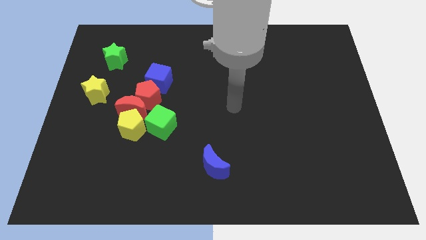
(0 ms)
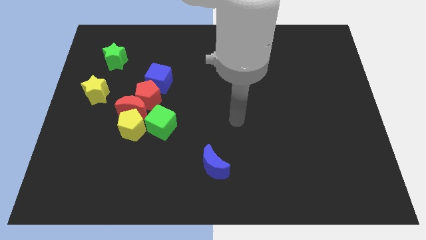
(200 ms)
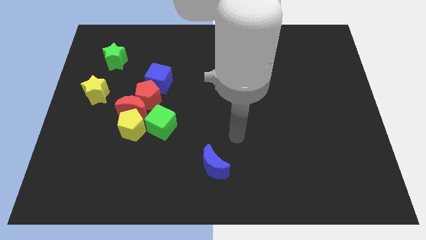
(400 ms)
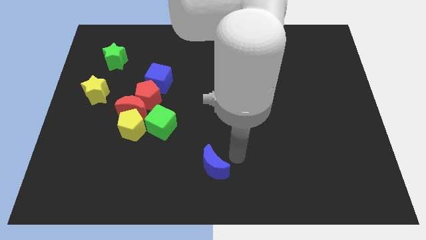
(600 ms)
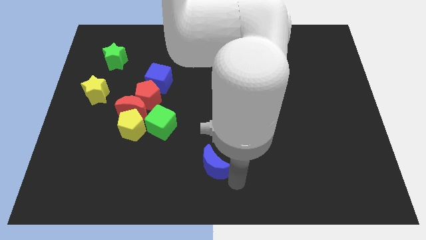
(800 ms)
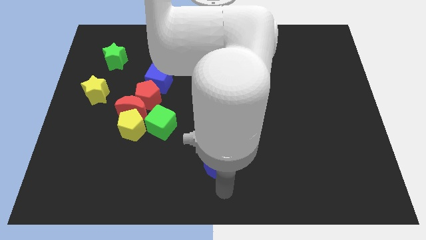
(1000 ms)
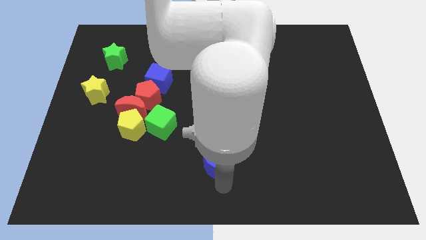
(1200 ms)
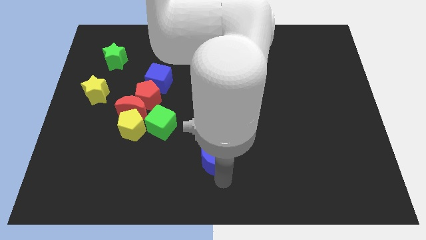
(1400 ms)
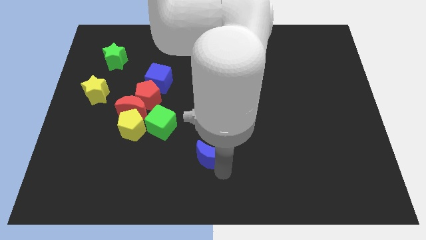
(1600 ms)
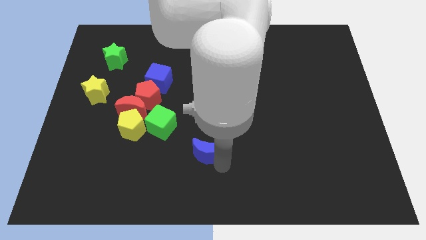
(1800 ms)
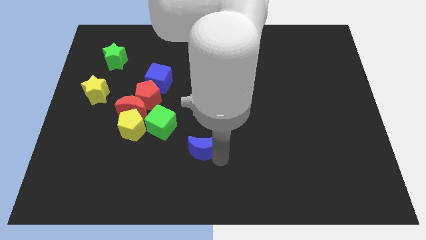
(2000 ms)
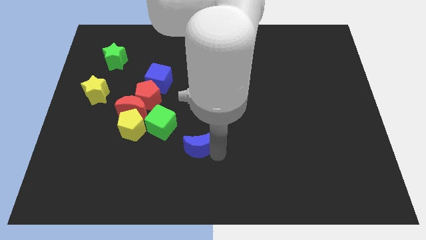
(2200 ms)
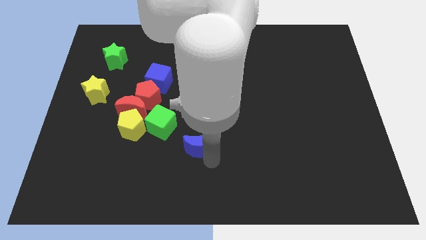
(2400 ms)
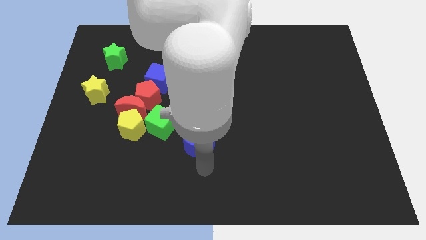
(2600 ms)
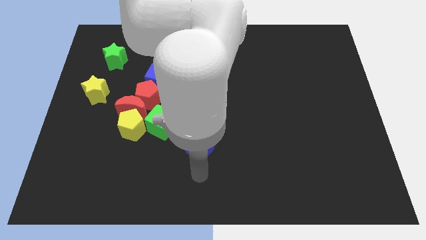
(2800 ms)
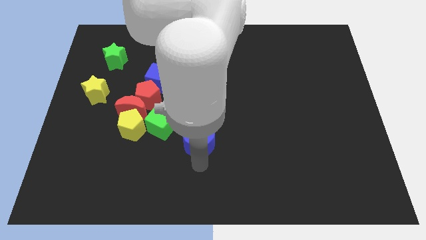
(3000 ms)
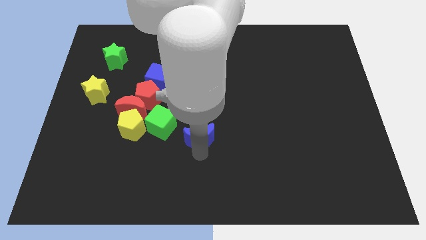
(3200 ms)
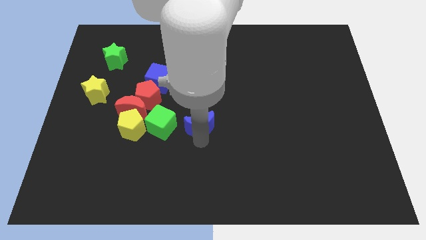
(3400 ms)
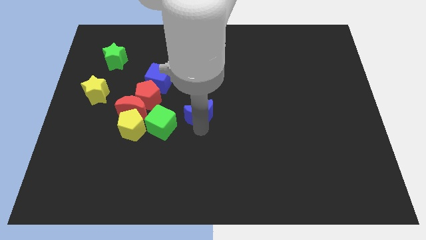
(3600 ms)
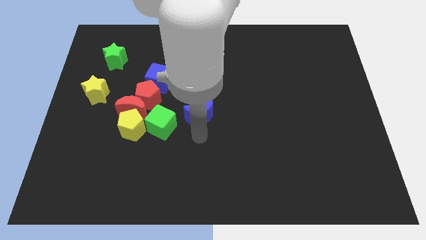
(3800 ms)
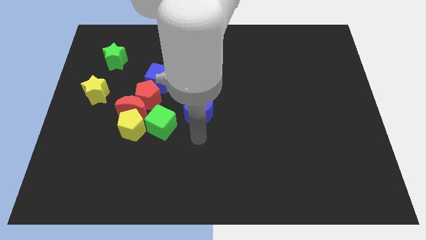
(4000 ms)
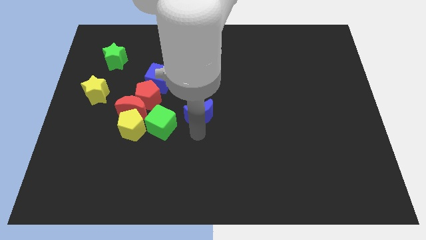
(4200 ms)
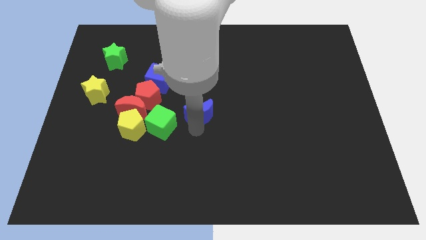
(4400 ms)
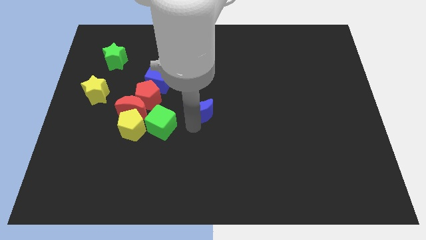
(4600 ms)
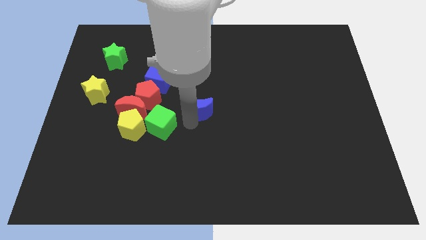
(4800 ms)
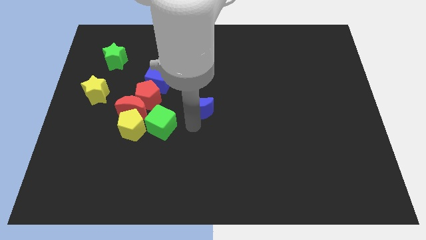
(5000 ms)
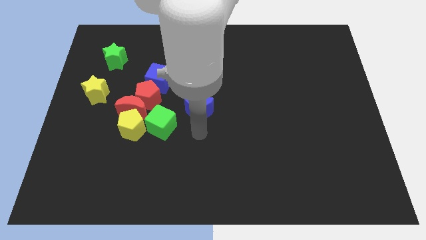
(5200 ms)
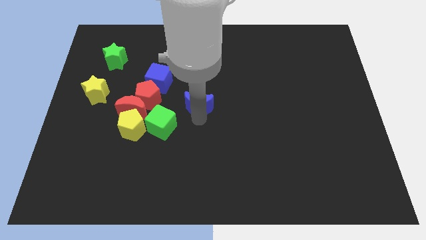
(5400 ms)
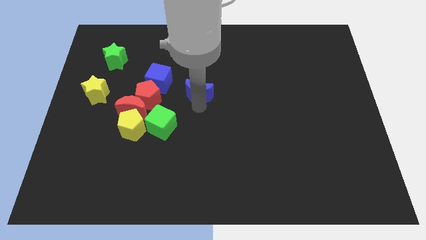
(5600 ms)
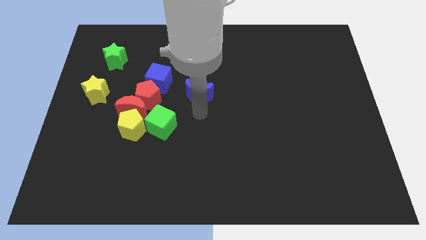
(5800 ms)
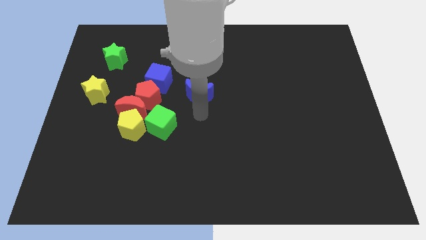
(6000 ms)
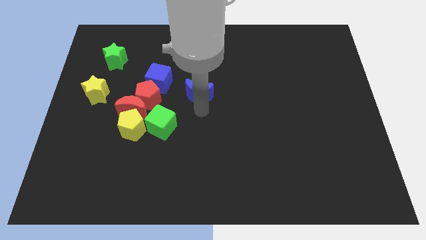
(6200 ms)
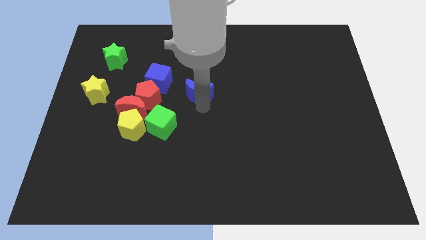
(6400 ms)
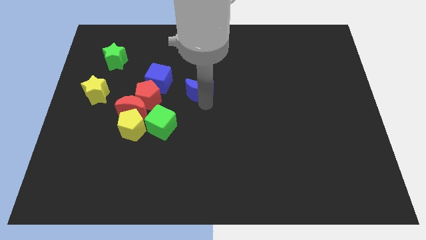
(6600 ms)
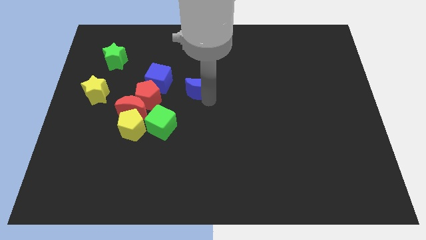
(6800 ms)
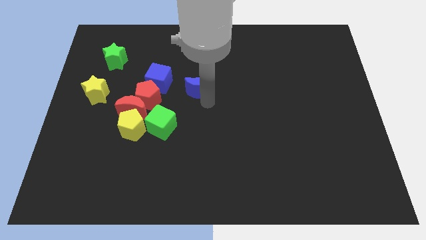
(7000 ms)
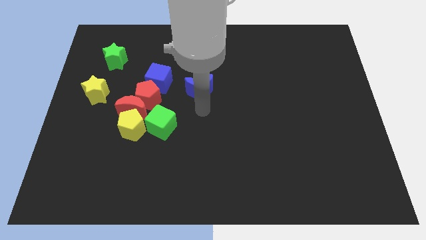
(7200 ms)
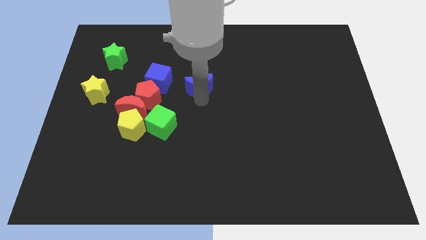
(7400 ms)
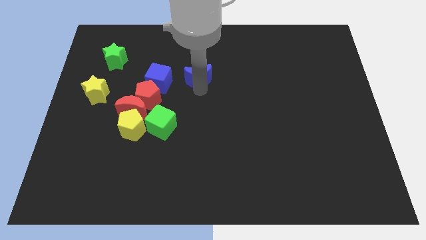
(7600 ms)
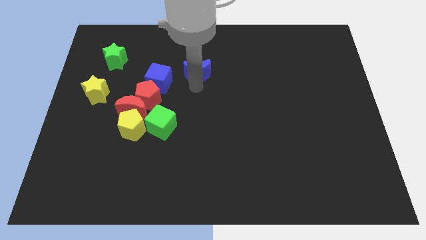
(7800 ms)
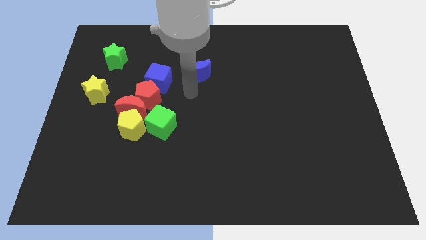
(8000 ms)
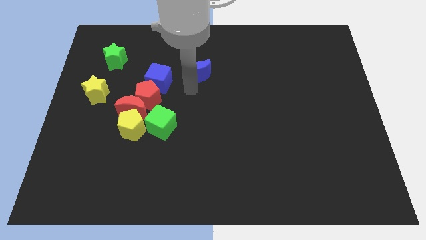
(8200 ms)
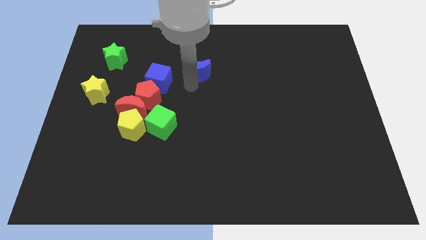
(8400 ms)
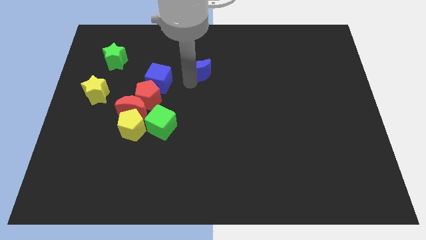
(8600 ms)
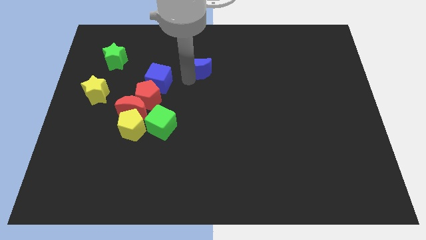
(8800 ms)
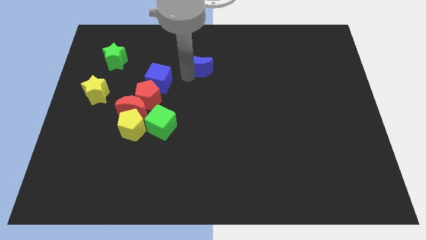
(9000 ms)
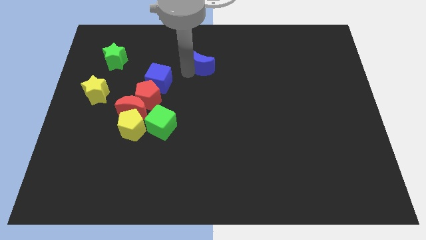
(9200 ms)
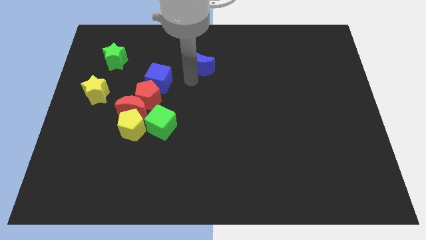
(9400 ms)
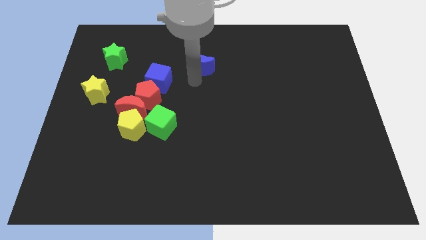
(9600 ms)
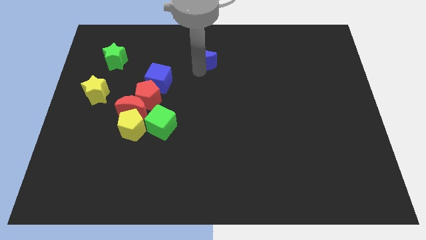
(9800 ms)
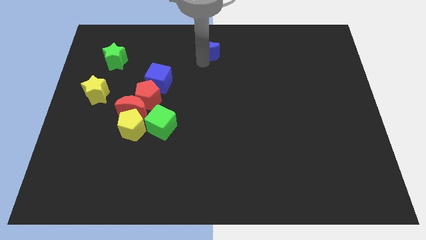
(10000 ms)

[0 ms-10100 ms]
move the blue moon to the top

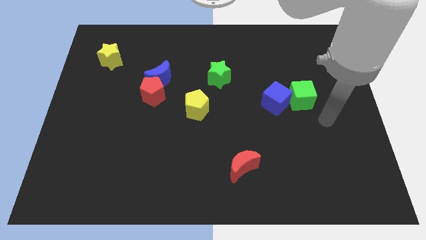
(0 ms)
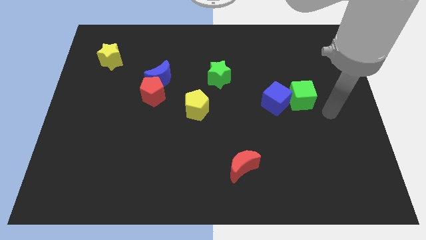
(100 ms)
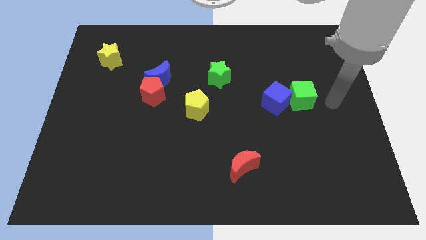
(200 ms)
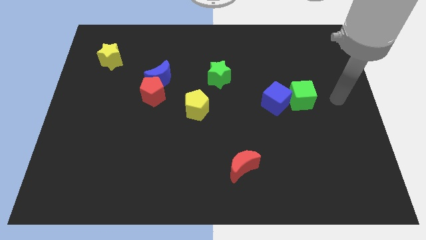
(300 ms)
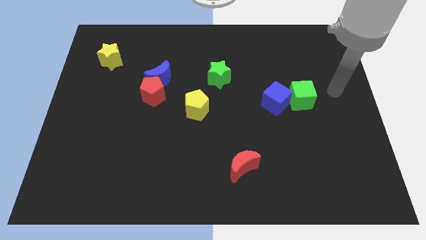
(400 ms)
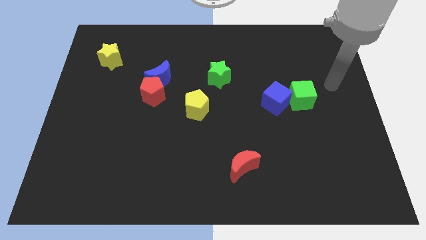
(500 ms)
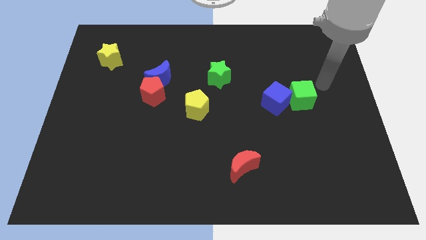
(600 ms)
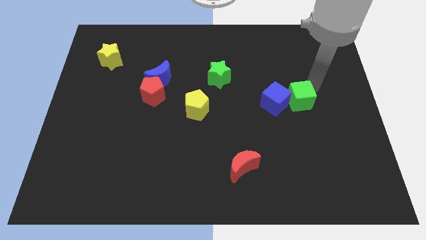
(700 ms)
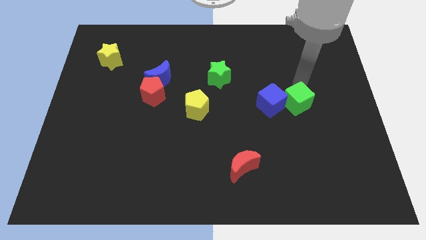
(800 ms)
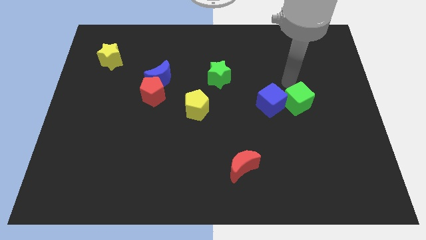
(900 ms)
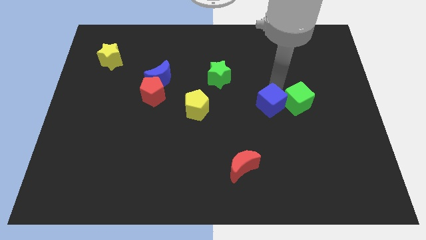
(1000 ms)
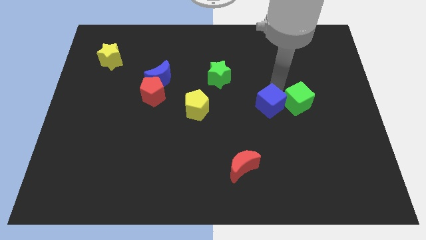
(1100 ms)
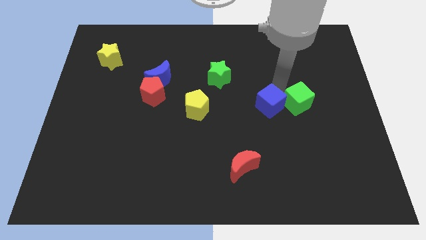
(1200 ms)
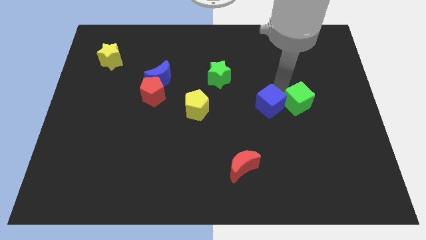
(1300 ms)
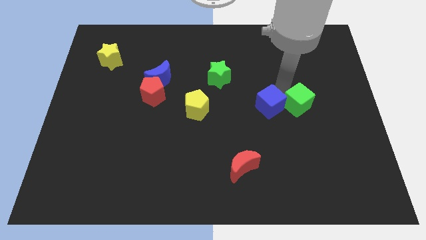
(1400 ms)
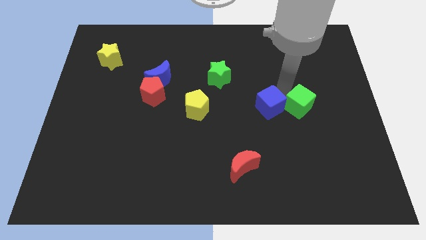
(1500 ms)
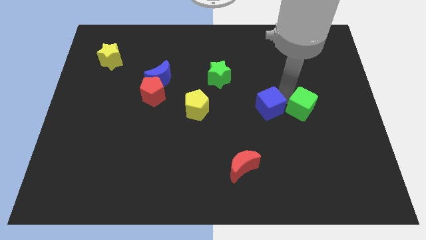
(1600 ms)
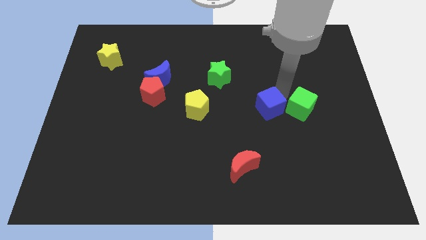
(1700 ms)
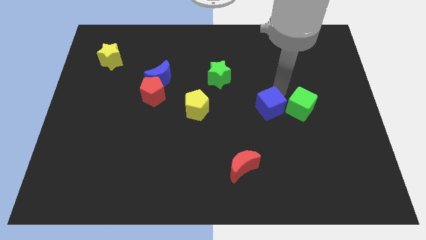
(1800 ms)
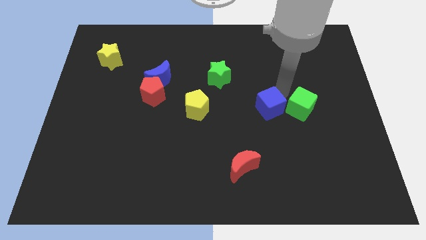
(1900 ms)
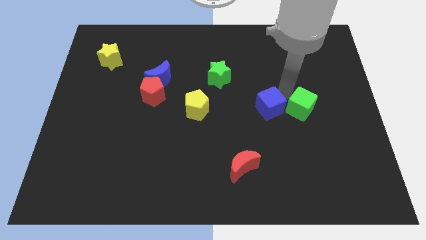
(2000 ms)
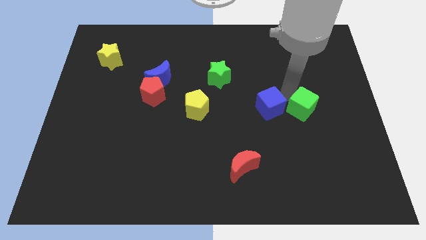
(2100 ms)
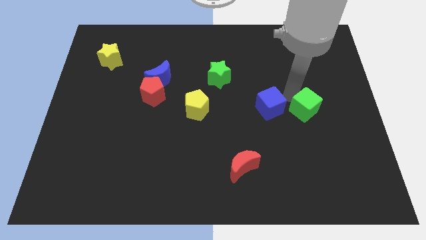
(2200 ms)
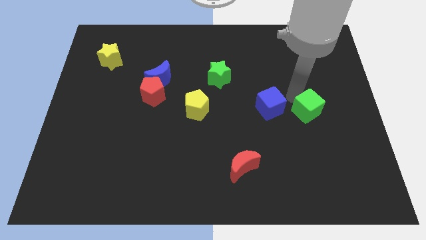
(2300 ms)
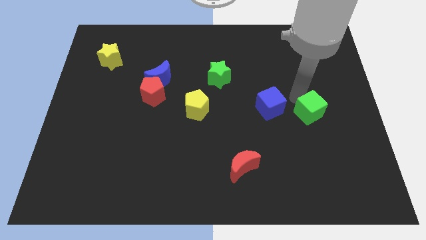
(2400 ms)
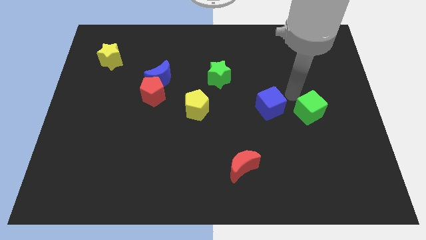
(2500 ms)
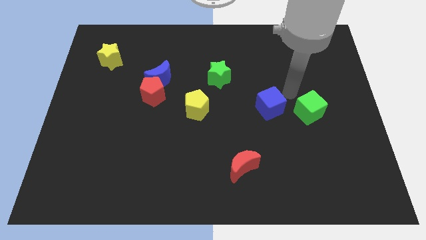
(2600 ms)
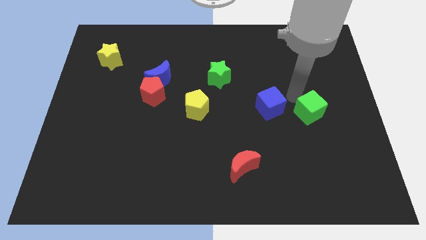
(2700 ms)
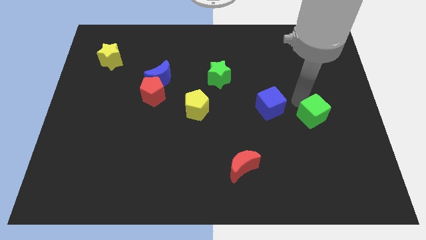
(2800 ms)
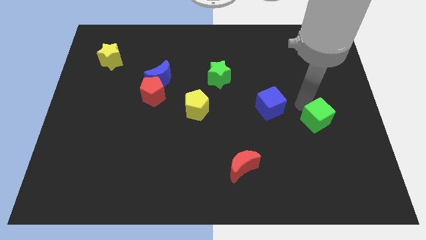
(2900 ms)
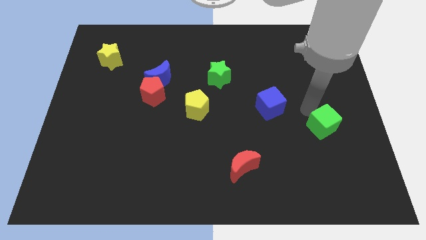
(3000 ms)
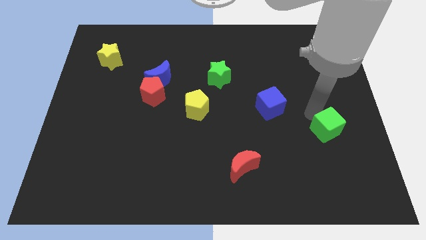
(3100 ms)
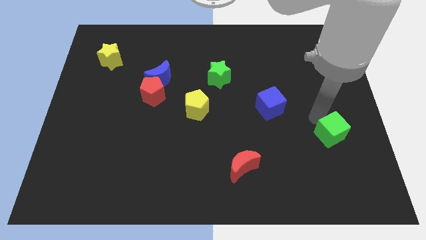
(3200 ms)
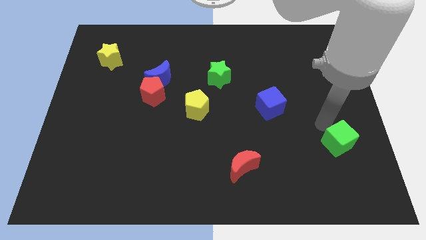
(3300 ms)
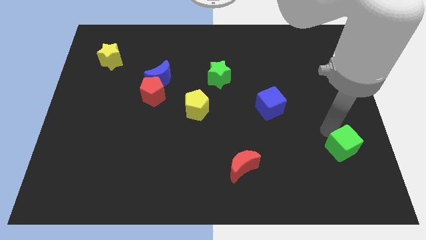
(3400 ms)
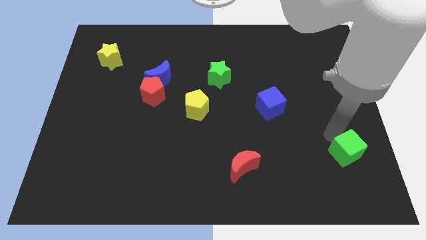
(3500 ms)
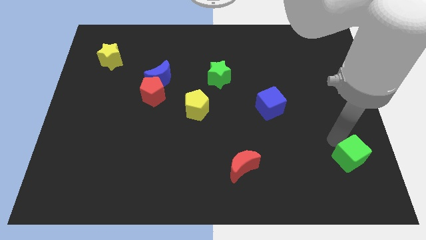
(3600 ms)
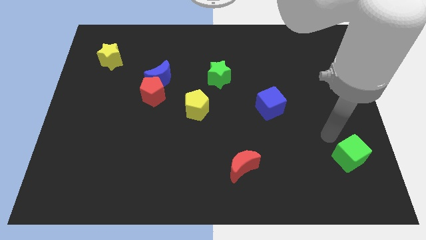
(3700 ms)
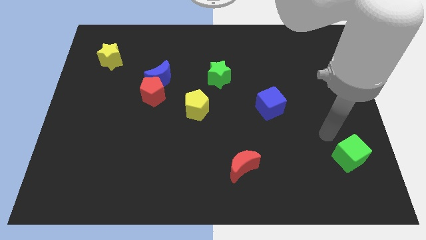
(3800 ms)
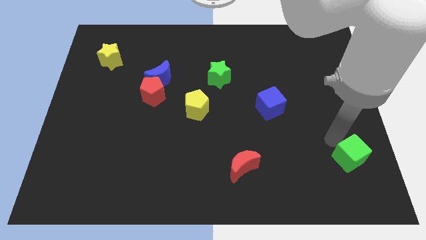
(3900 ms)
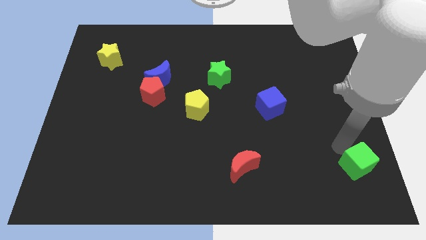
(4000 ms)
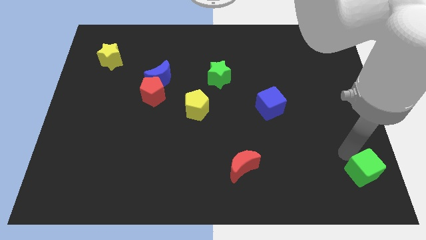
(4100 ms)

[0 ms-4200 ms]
slide the green cube to the bottom right of the board
